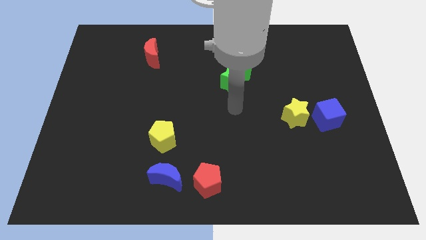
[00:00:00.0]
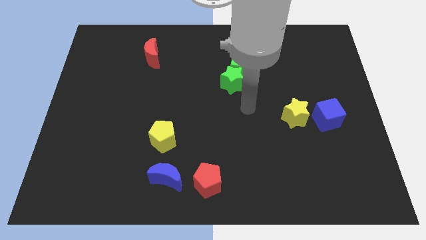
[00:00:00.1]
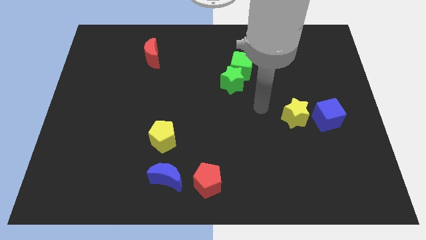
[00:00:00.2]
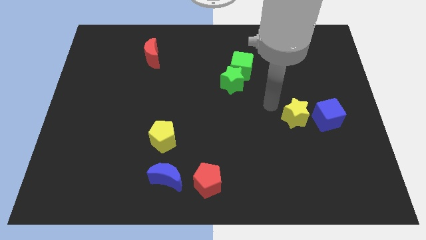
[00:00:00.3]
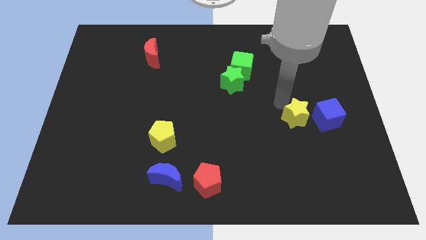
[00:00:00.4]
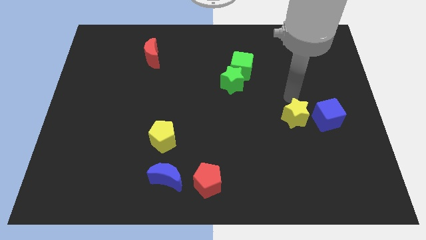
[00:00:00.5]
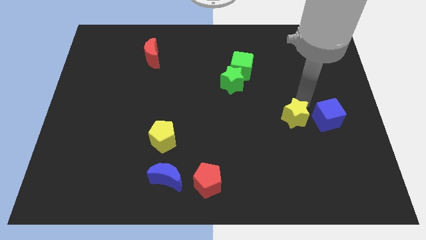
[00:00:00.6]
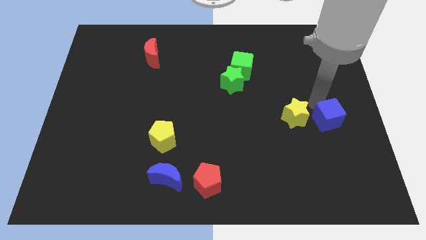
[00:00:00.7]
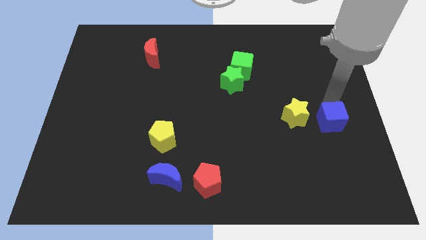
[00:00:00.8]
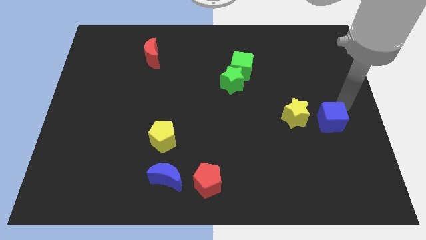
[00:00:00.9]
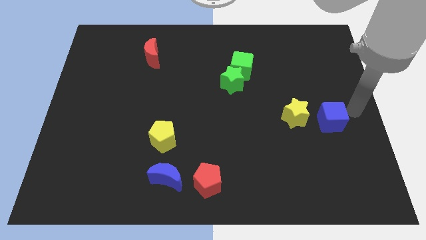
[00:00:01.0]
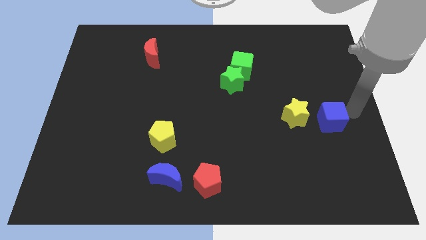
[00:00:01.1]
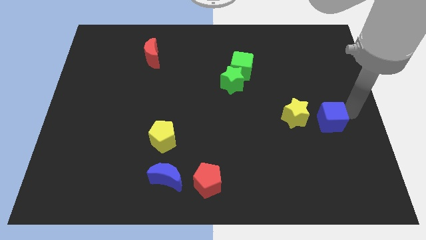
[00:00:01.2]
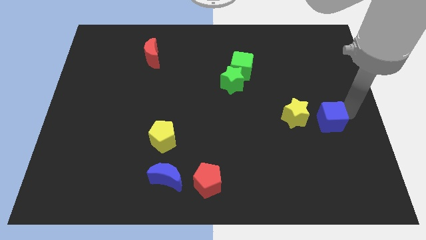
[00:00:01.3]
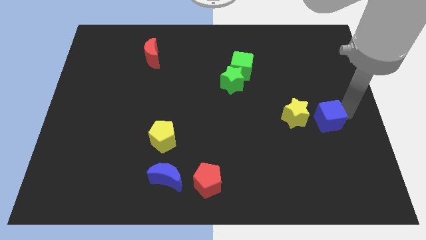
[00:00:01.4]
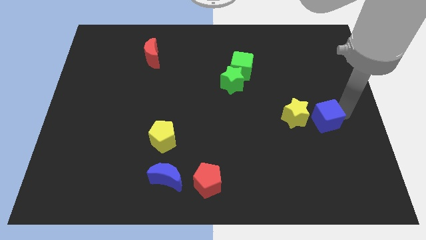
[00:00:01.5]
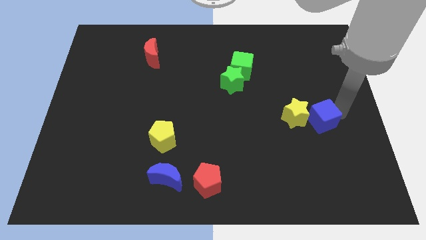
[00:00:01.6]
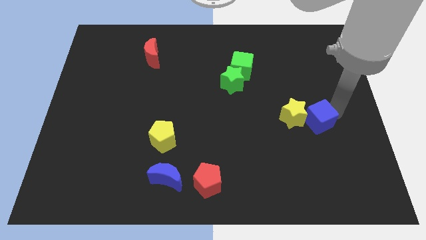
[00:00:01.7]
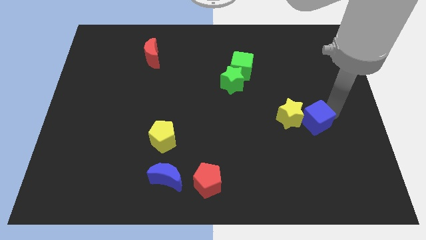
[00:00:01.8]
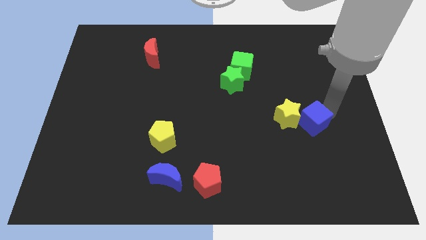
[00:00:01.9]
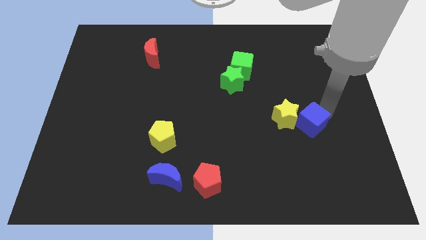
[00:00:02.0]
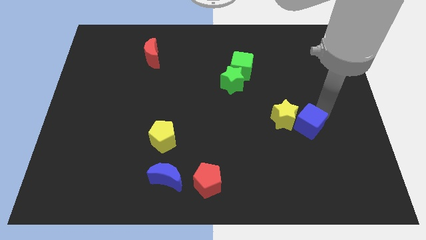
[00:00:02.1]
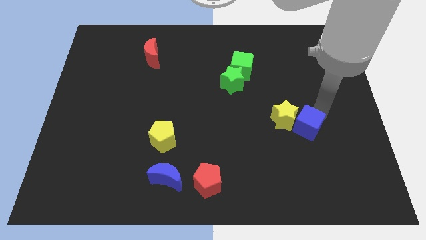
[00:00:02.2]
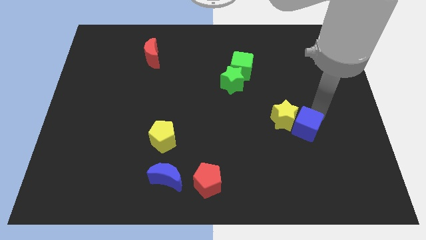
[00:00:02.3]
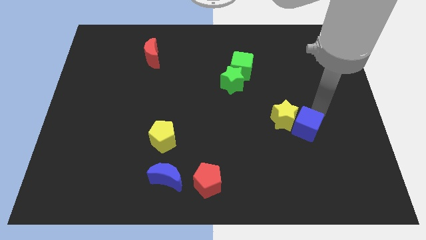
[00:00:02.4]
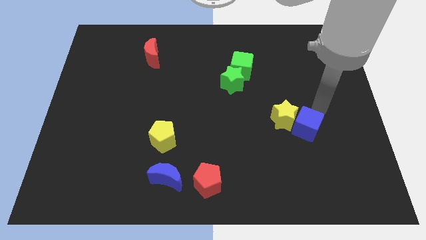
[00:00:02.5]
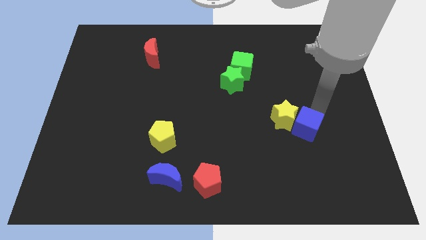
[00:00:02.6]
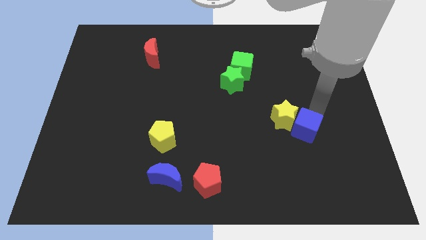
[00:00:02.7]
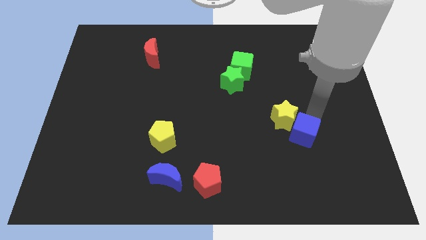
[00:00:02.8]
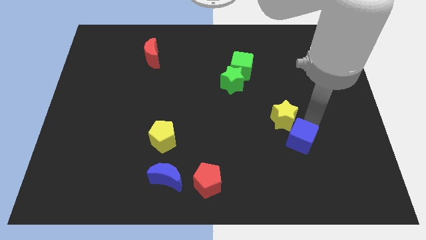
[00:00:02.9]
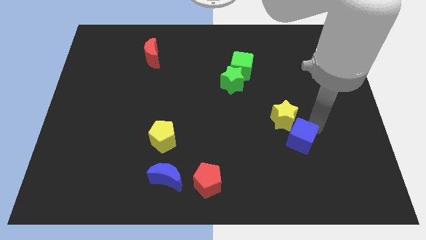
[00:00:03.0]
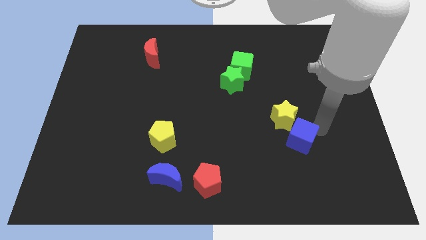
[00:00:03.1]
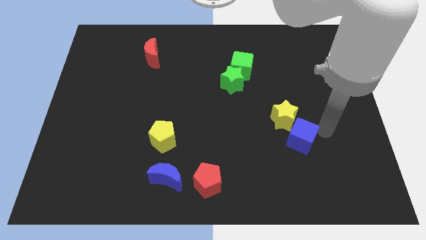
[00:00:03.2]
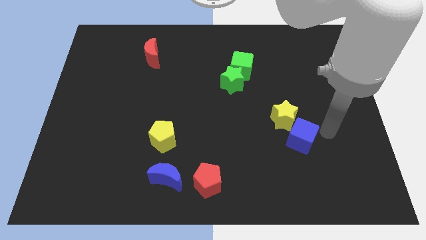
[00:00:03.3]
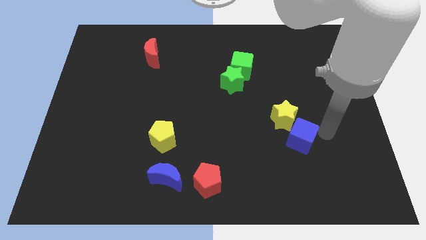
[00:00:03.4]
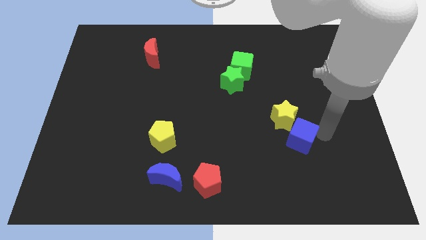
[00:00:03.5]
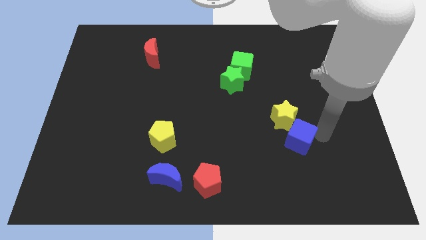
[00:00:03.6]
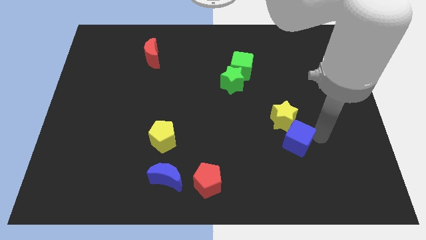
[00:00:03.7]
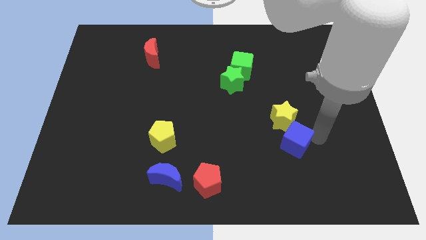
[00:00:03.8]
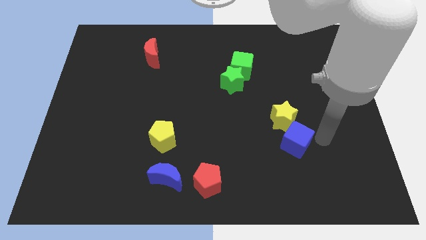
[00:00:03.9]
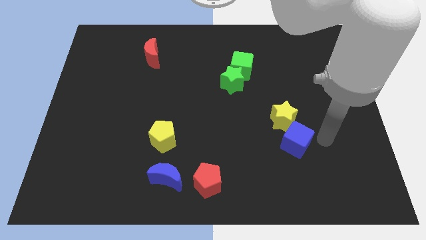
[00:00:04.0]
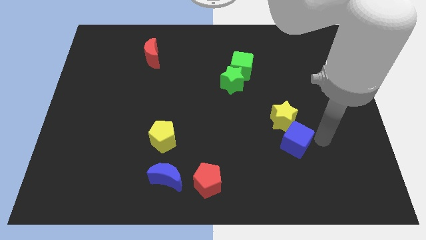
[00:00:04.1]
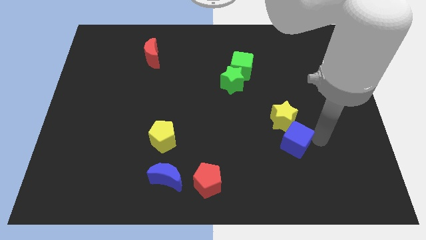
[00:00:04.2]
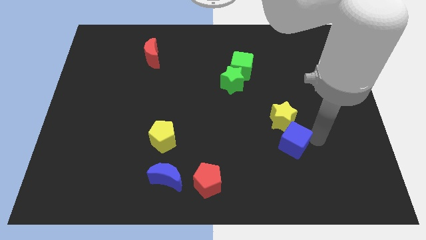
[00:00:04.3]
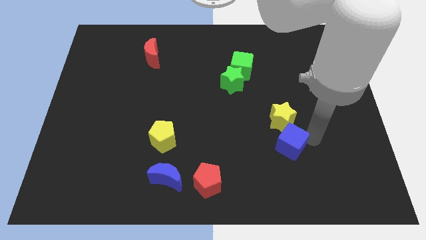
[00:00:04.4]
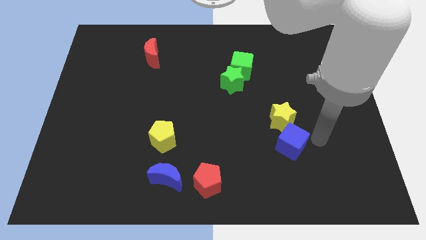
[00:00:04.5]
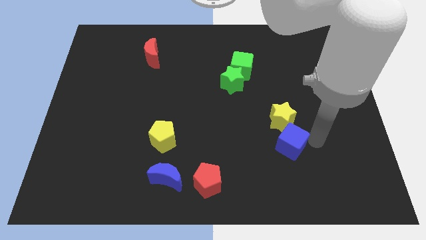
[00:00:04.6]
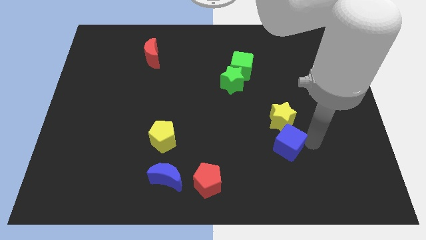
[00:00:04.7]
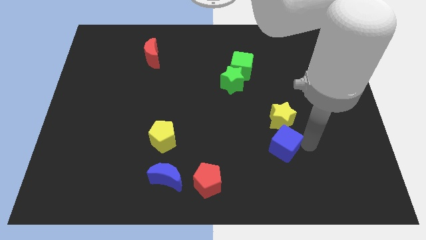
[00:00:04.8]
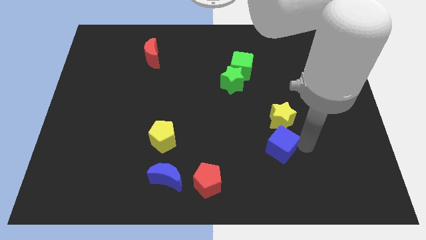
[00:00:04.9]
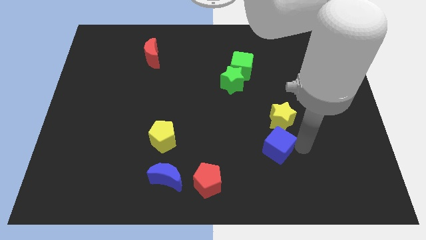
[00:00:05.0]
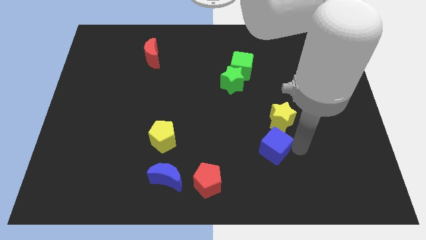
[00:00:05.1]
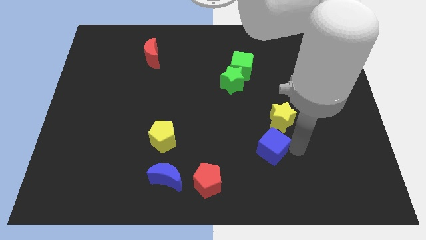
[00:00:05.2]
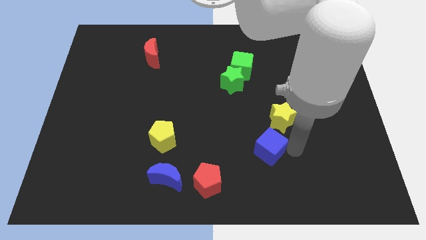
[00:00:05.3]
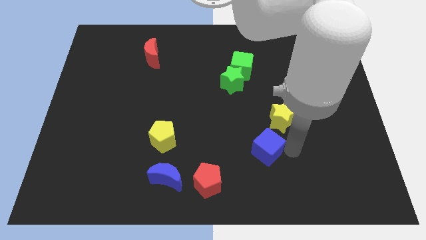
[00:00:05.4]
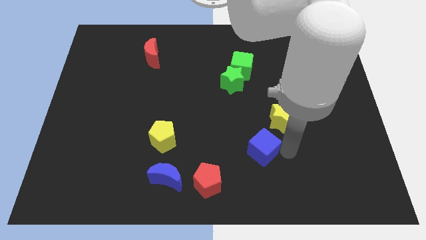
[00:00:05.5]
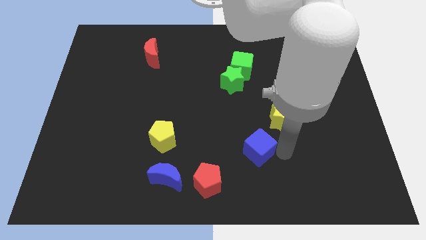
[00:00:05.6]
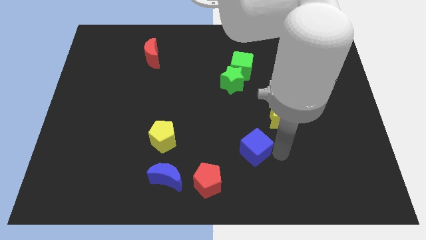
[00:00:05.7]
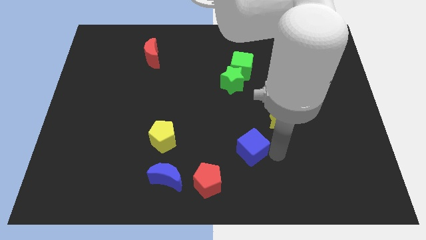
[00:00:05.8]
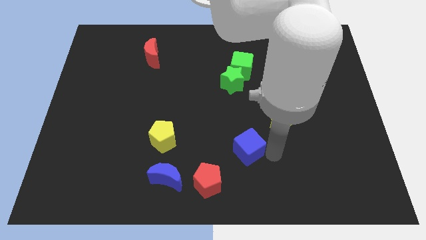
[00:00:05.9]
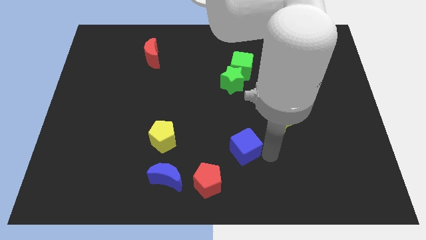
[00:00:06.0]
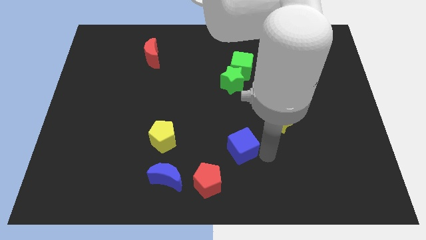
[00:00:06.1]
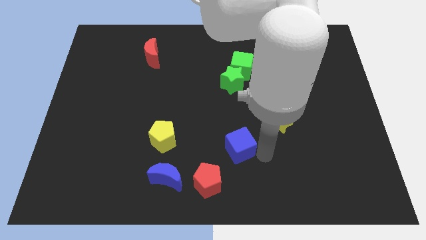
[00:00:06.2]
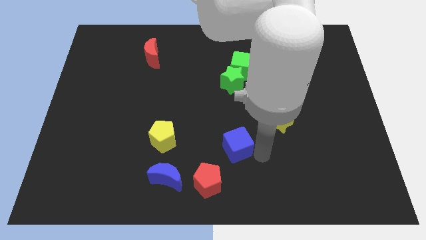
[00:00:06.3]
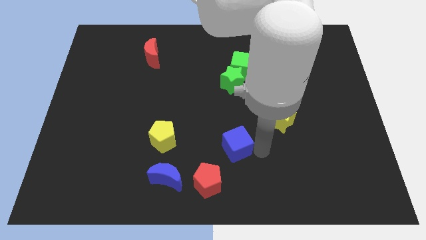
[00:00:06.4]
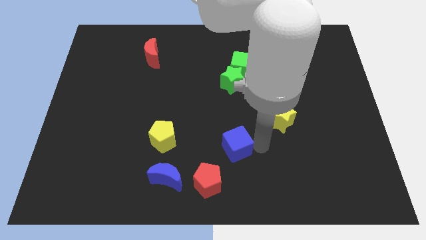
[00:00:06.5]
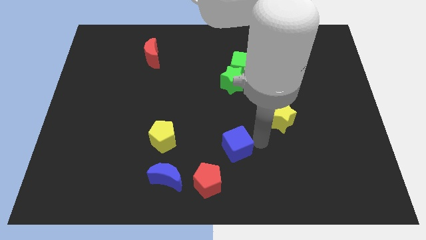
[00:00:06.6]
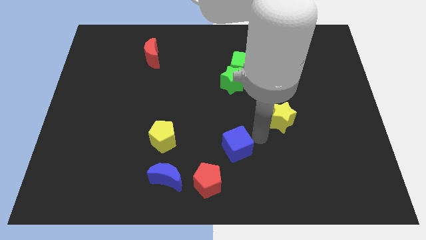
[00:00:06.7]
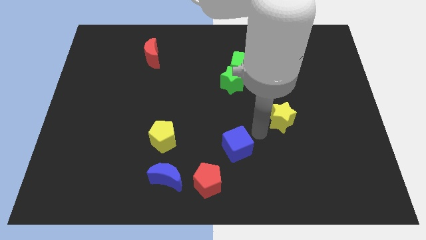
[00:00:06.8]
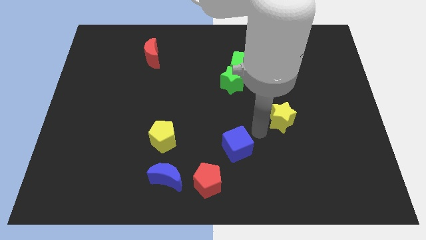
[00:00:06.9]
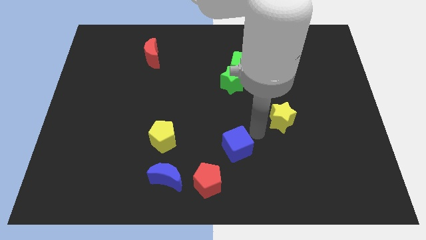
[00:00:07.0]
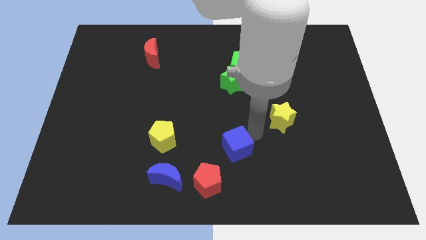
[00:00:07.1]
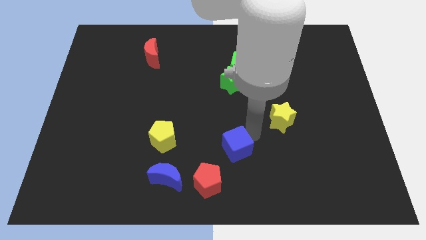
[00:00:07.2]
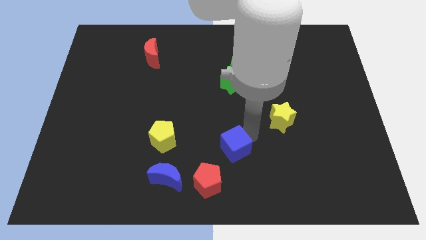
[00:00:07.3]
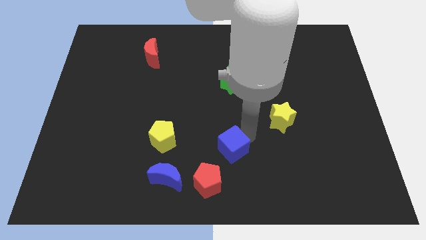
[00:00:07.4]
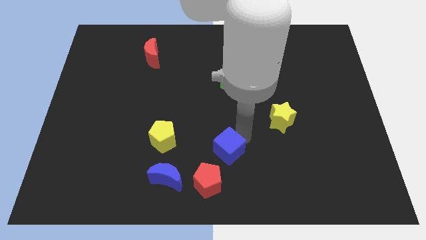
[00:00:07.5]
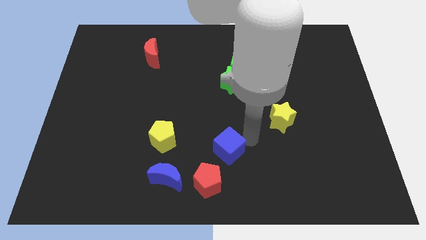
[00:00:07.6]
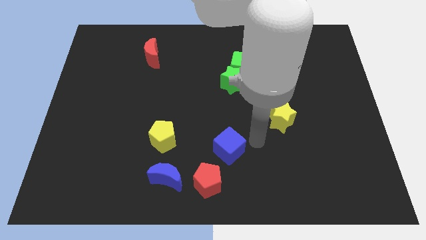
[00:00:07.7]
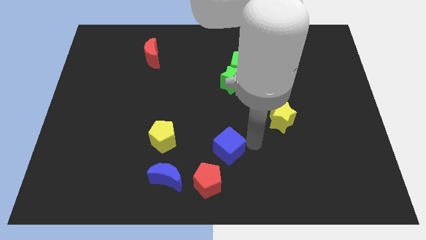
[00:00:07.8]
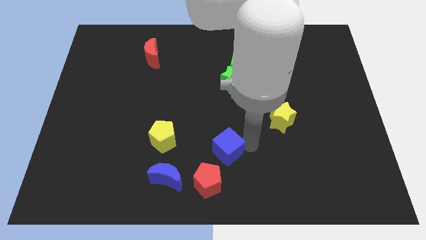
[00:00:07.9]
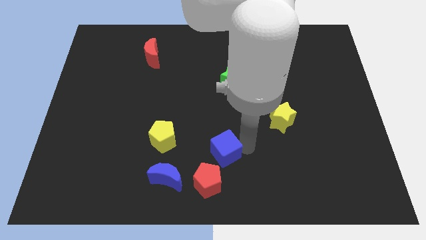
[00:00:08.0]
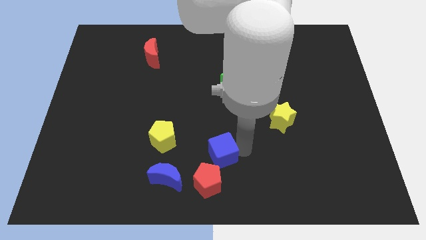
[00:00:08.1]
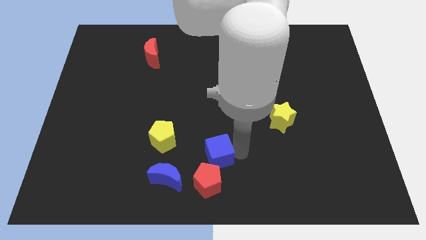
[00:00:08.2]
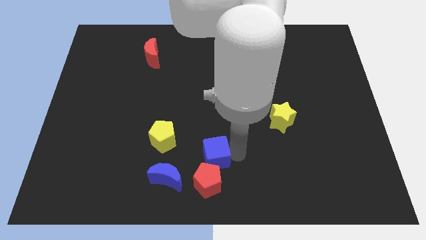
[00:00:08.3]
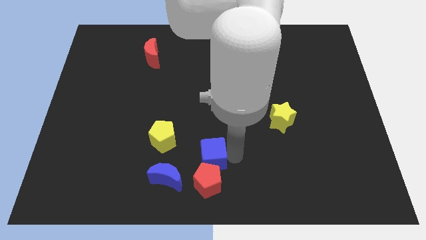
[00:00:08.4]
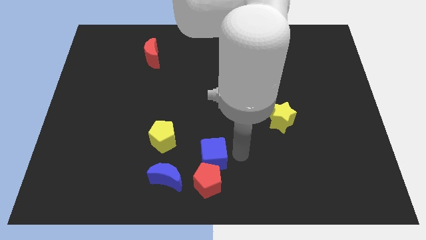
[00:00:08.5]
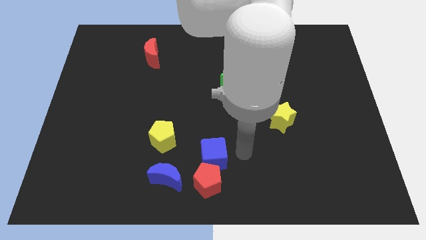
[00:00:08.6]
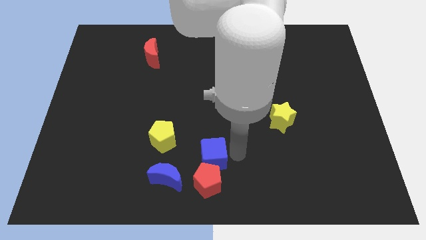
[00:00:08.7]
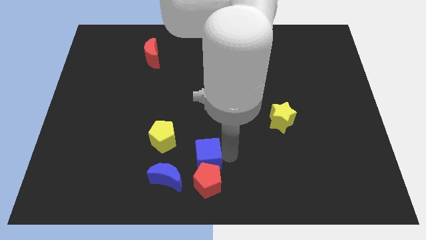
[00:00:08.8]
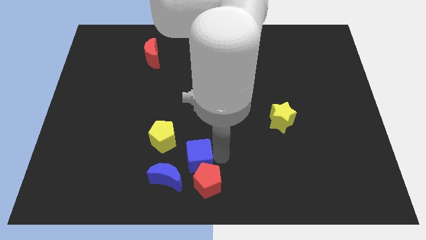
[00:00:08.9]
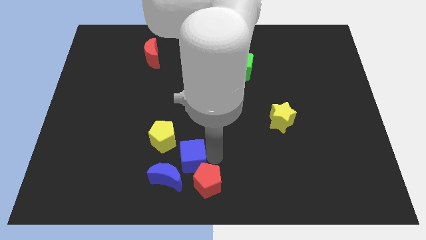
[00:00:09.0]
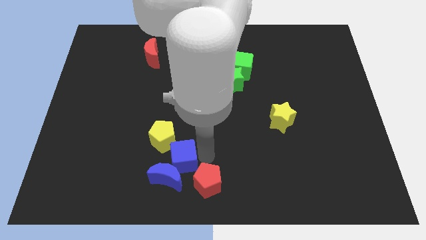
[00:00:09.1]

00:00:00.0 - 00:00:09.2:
slide the blue cube close to the blue moon
